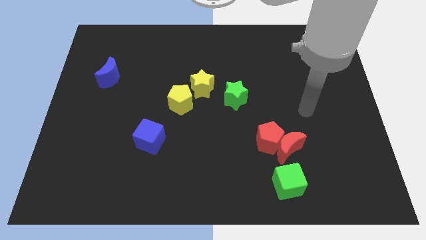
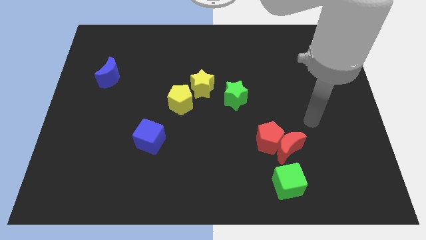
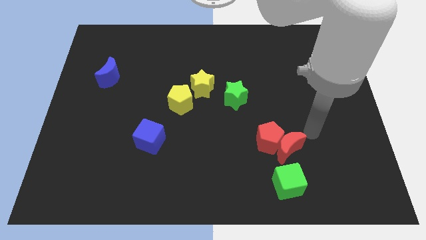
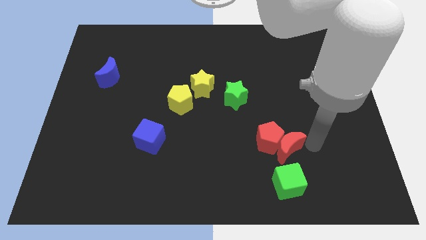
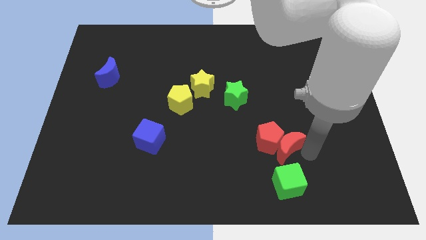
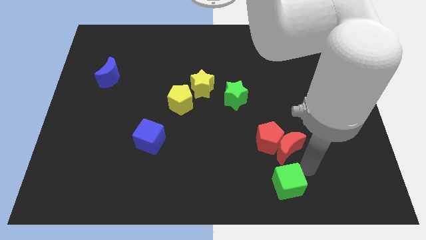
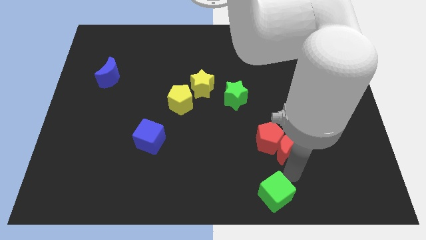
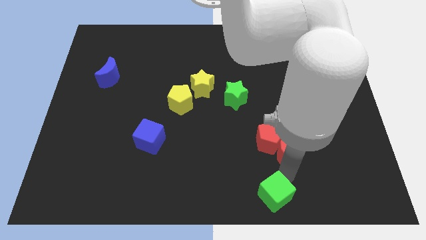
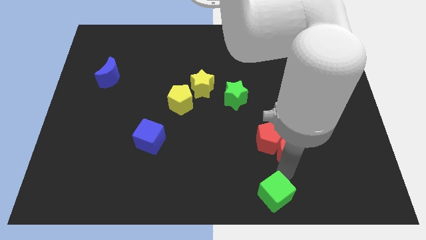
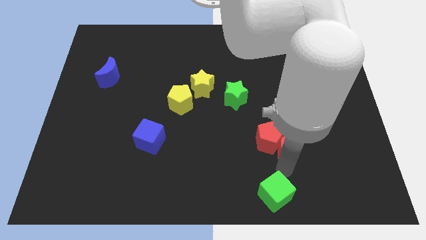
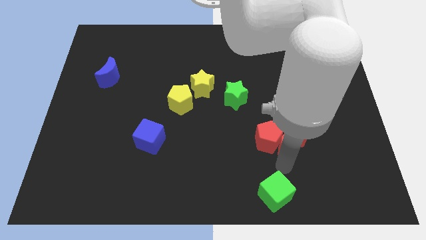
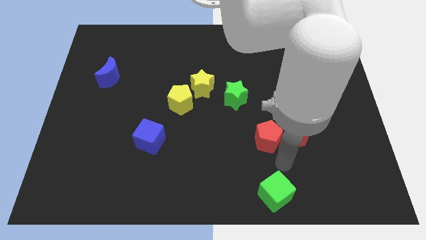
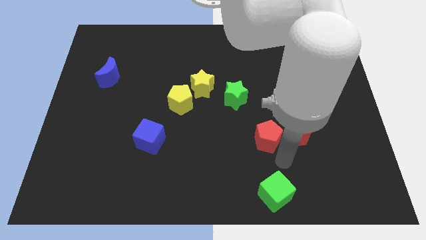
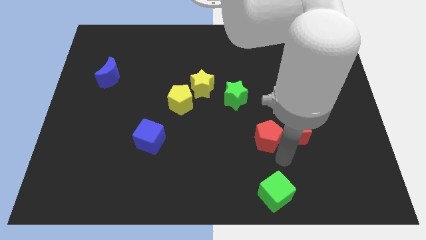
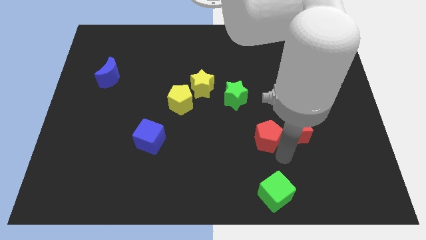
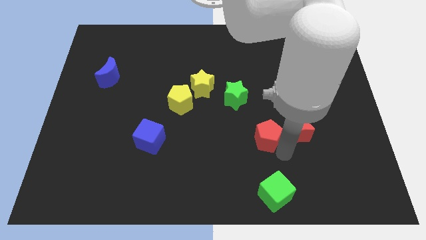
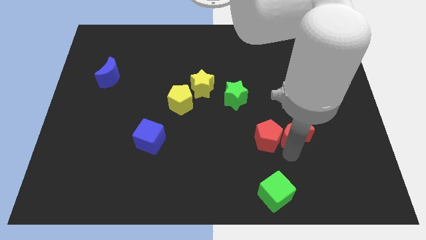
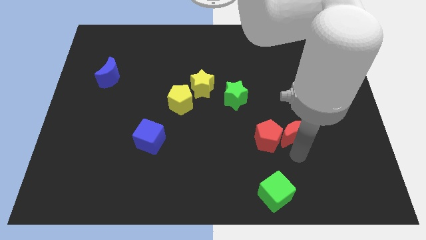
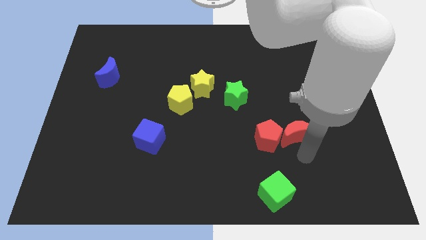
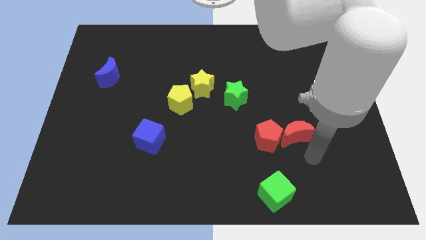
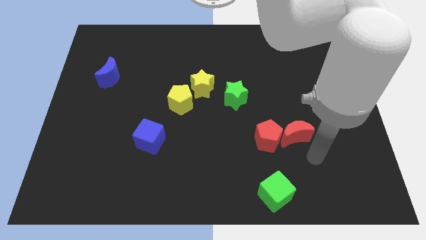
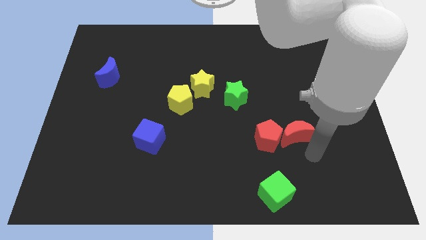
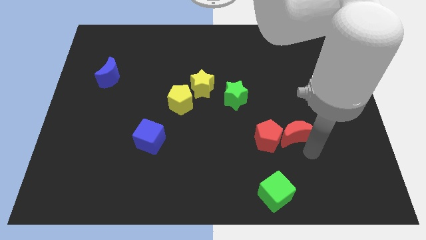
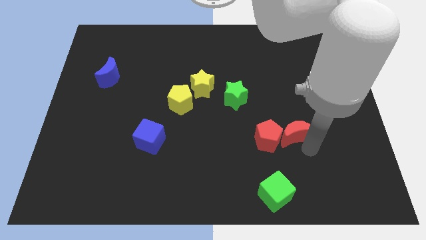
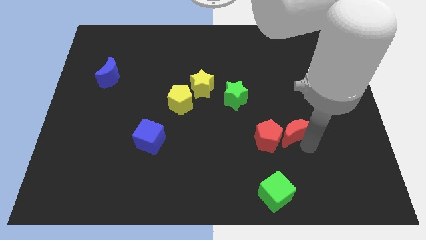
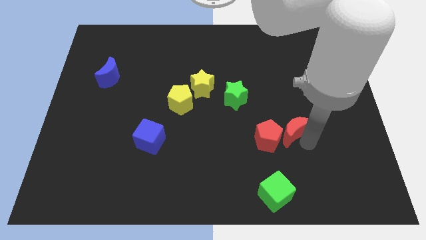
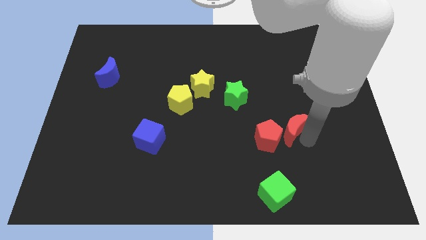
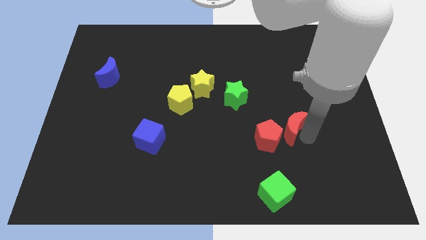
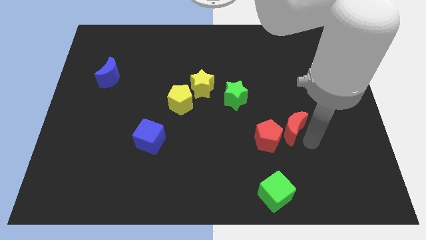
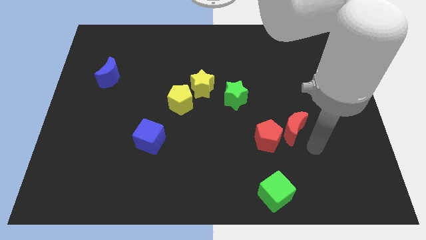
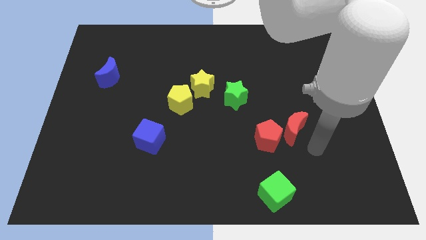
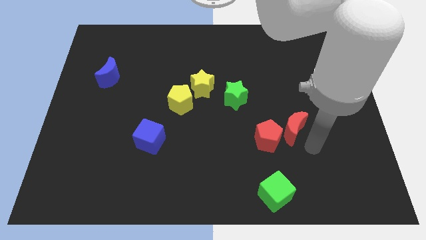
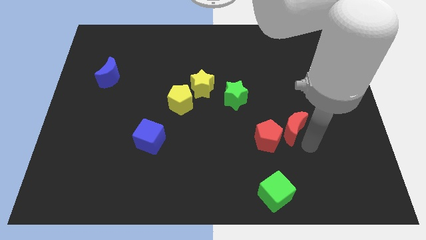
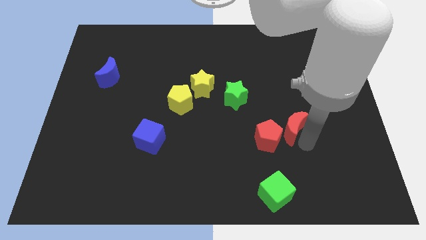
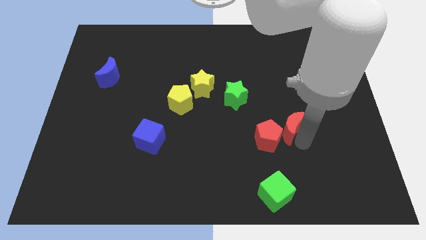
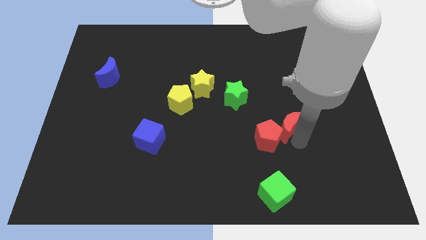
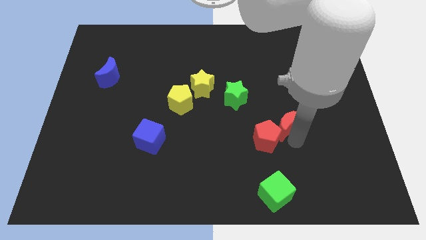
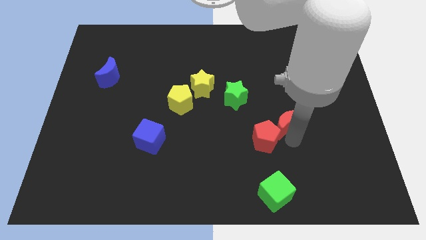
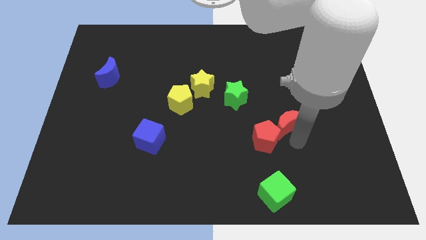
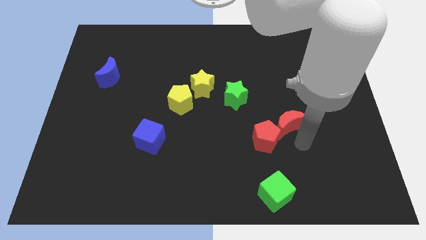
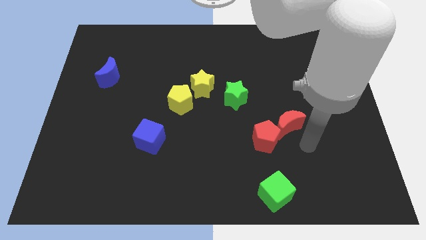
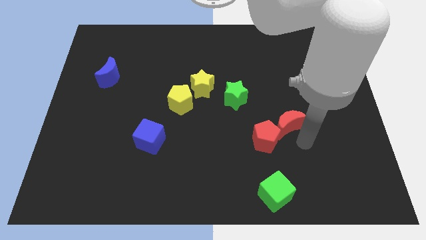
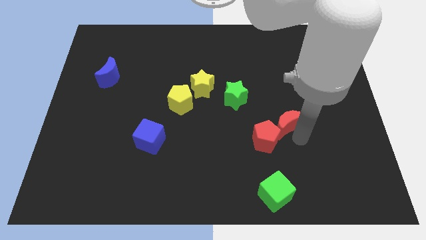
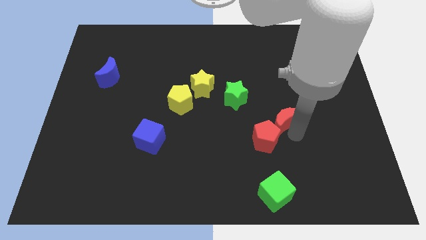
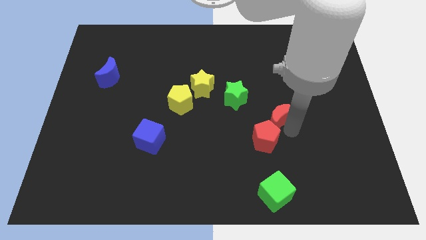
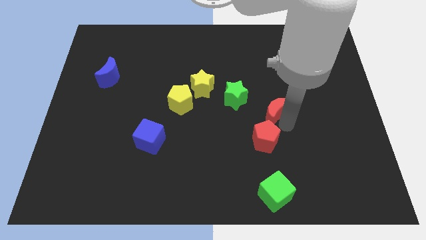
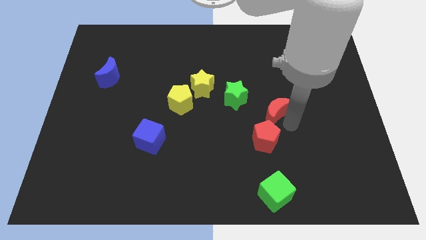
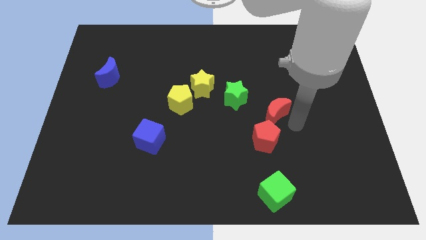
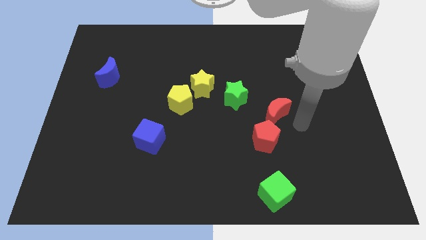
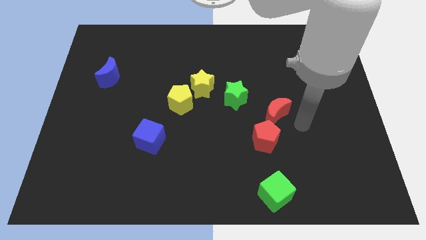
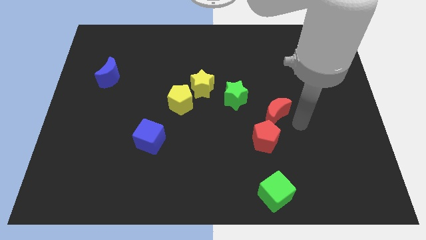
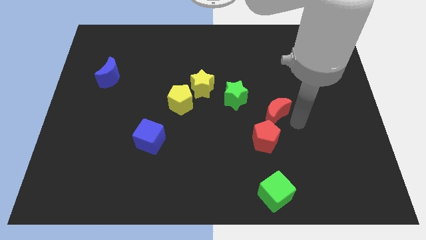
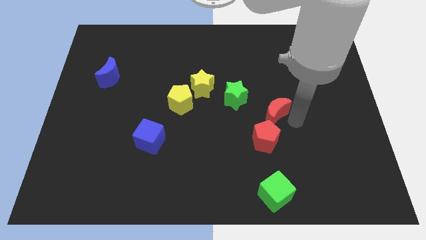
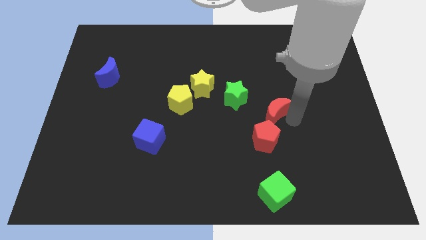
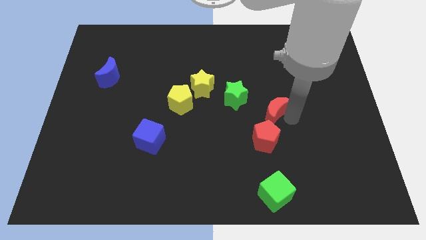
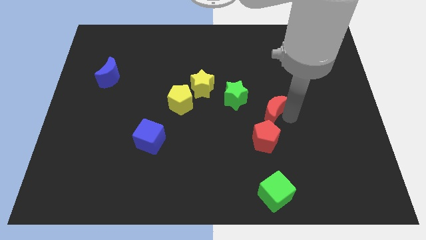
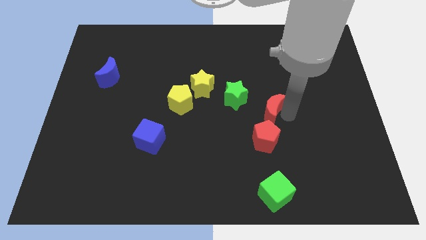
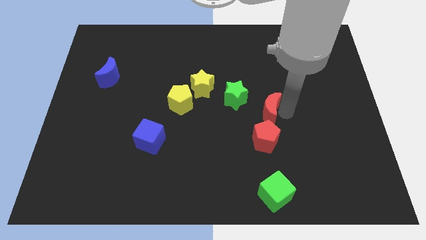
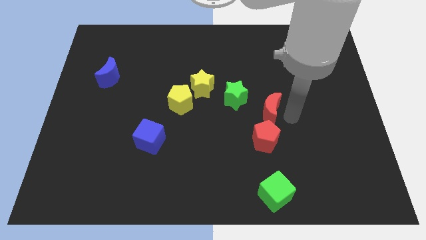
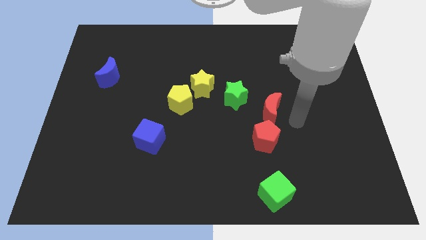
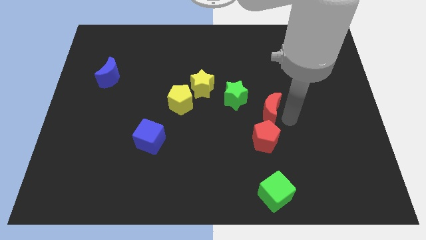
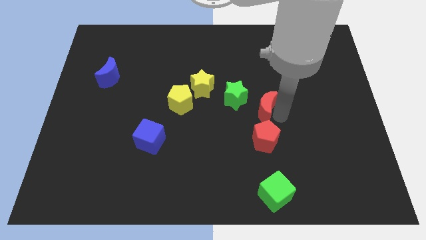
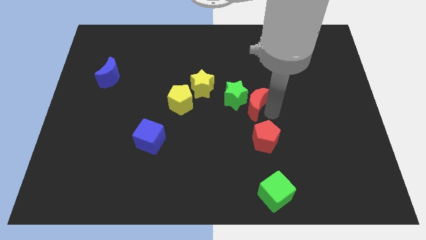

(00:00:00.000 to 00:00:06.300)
push the red moon towards the green star

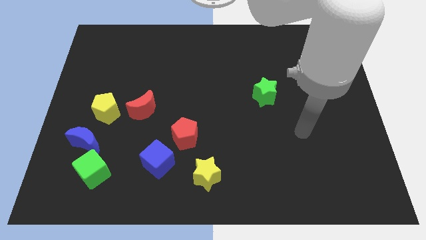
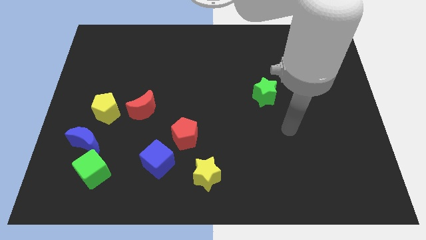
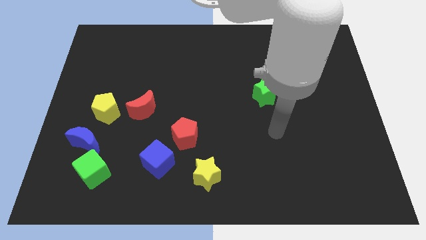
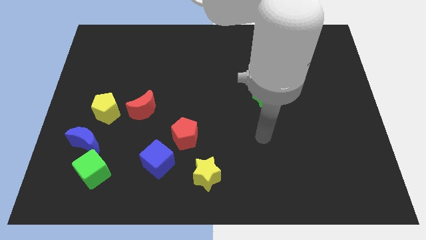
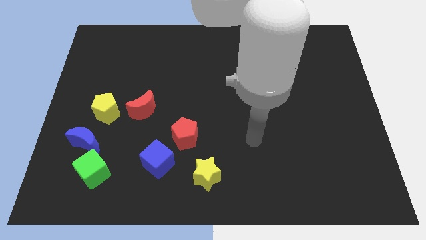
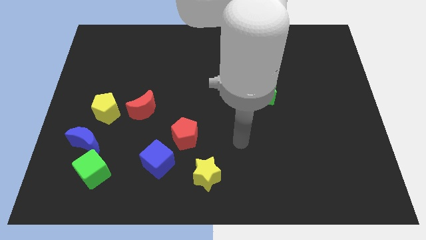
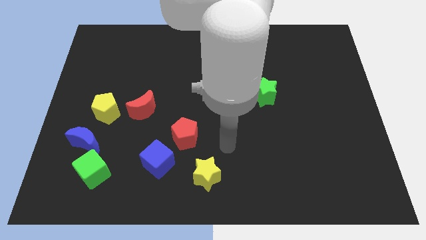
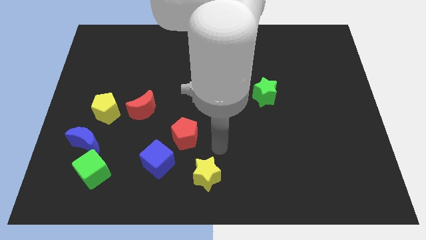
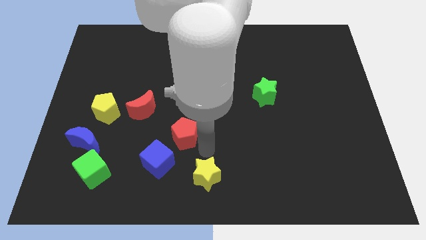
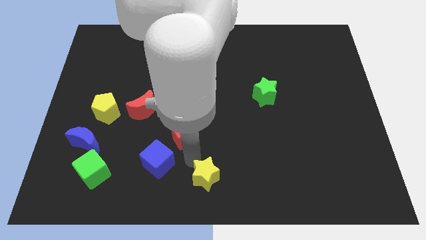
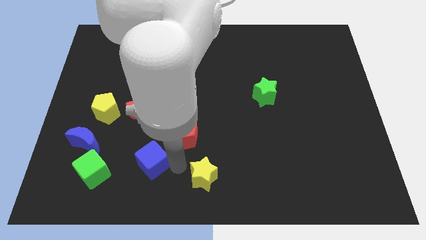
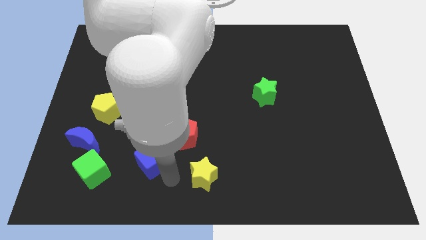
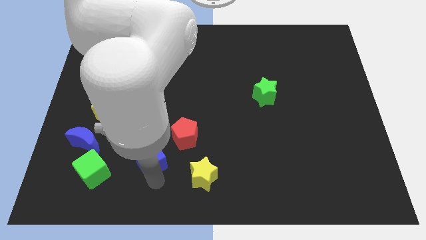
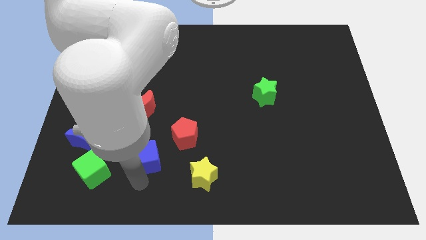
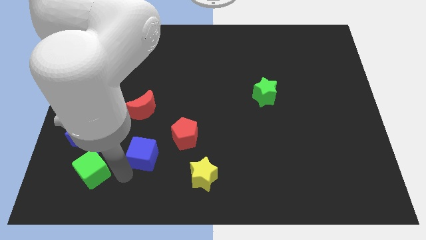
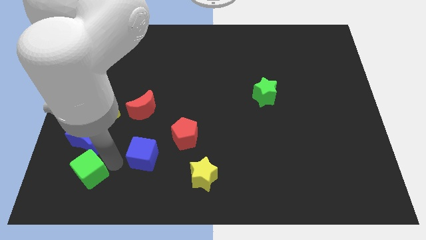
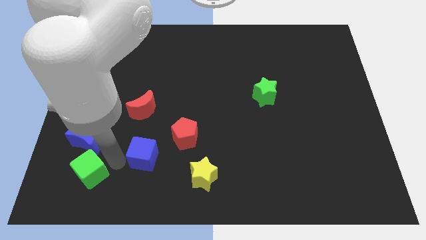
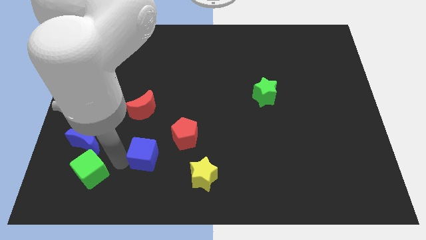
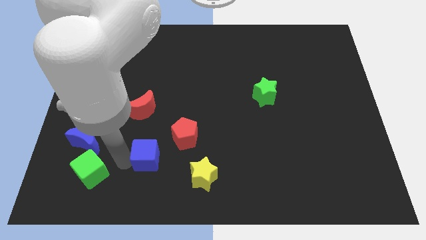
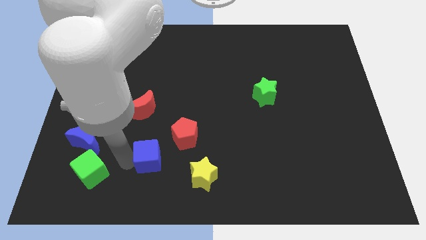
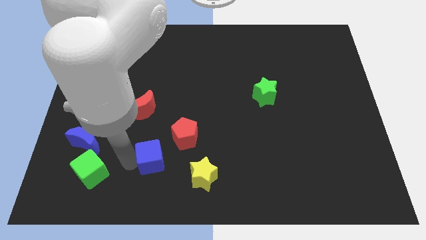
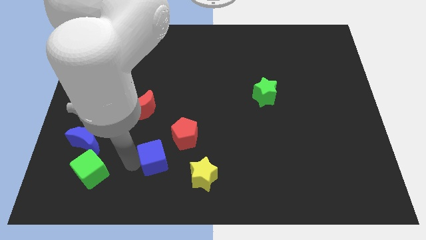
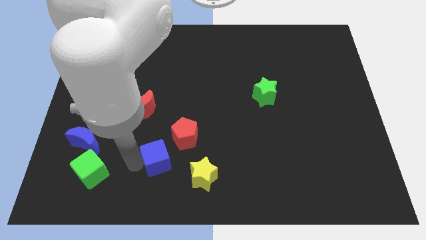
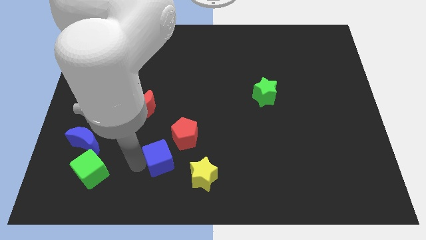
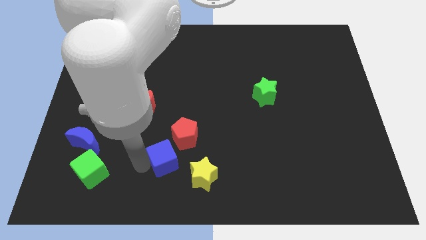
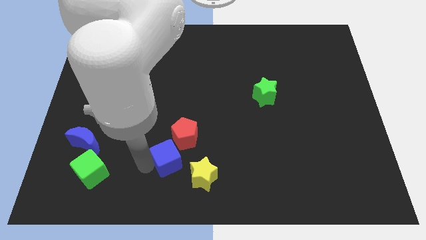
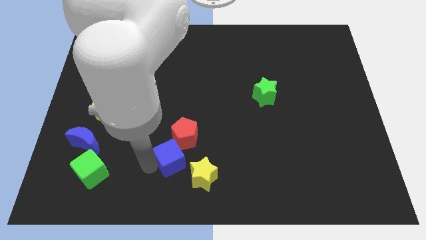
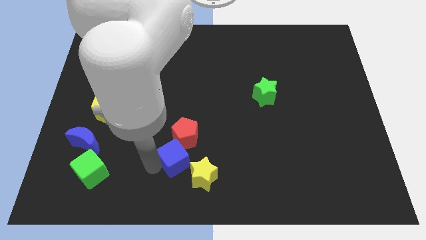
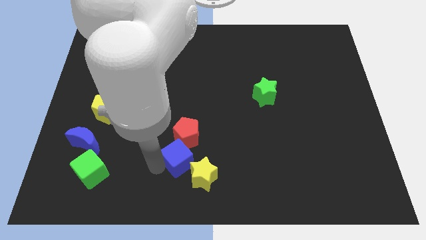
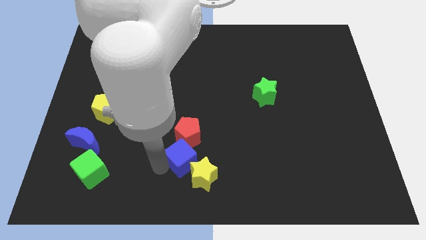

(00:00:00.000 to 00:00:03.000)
push the blue cube close to the red pentagon
